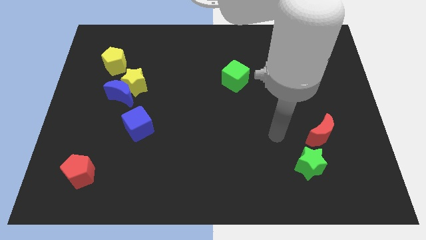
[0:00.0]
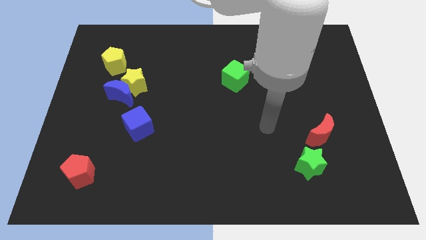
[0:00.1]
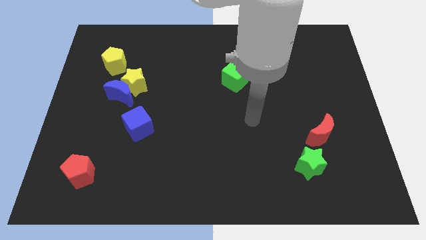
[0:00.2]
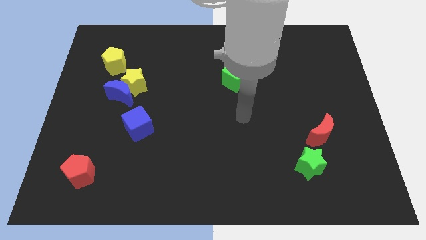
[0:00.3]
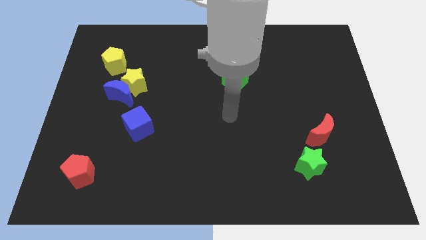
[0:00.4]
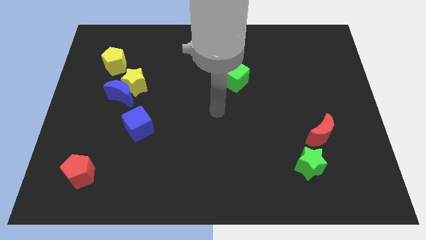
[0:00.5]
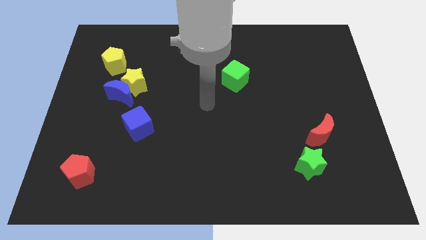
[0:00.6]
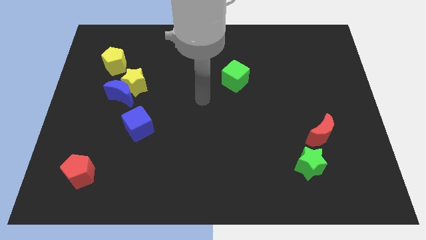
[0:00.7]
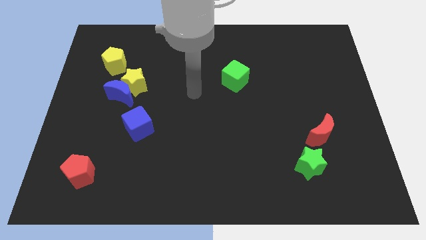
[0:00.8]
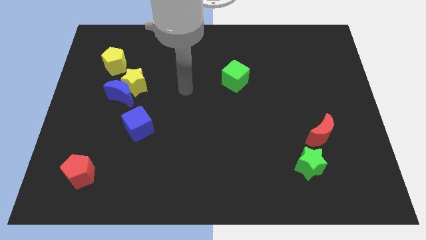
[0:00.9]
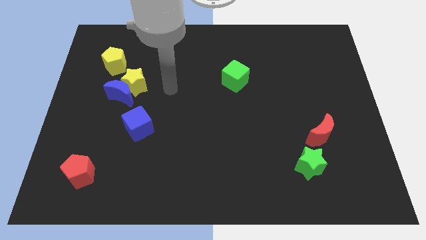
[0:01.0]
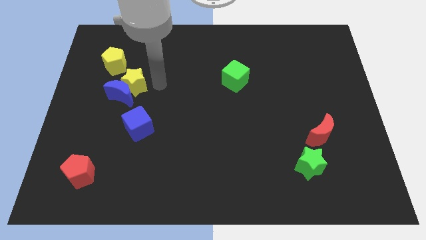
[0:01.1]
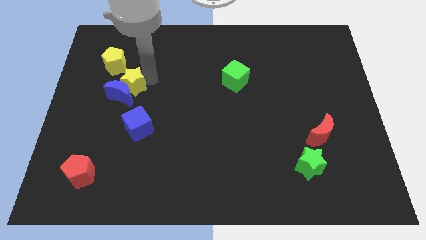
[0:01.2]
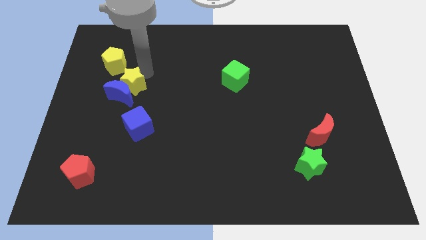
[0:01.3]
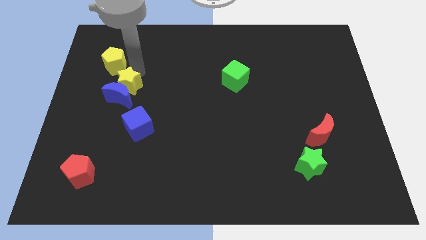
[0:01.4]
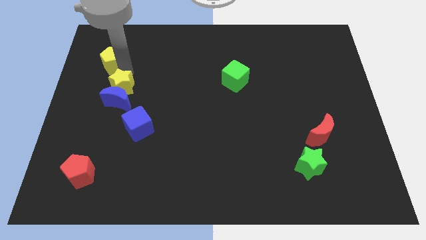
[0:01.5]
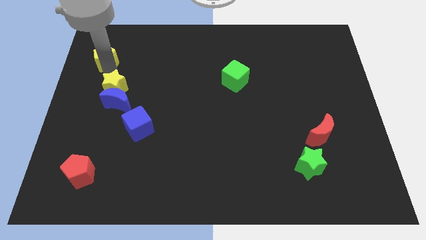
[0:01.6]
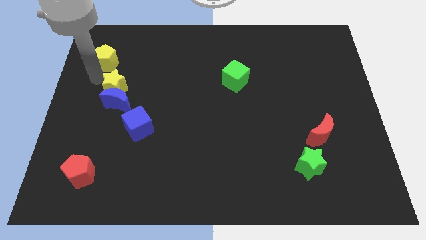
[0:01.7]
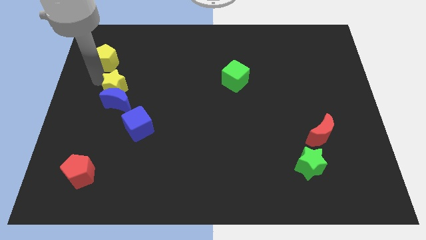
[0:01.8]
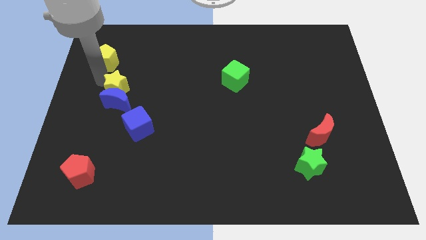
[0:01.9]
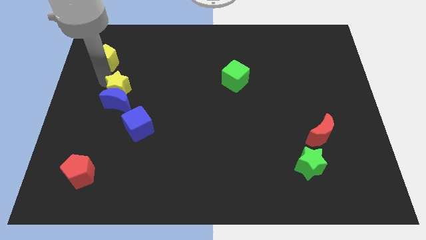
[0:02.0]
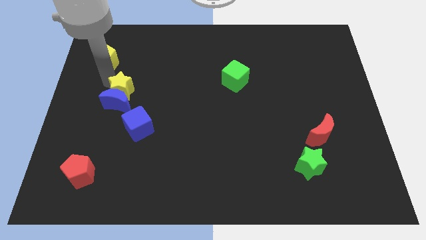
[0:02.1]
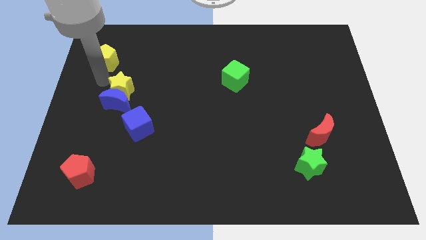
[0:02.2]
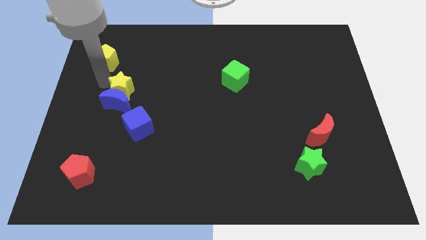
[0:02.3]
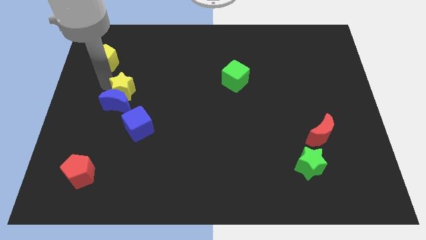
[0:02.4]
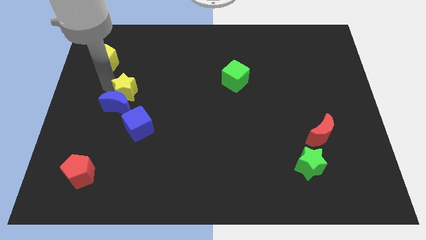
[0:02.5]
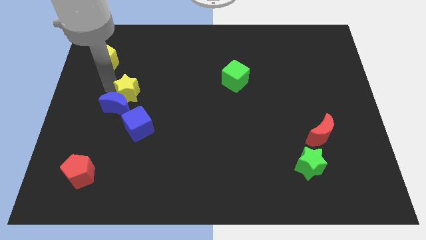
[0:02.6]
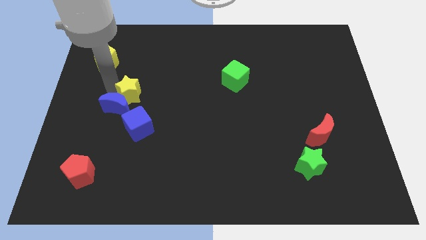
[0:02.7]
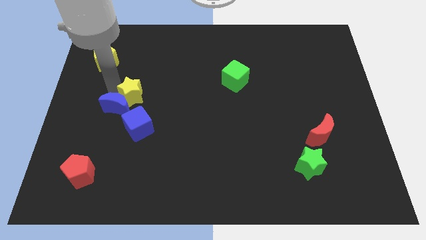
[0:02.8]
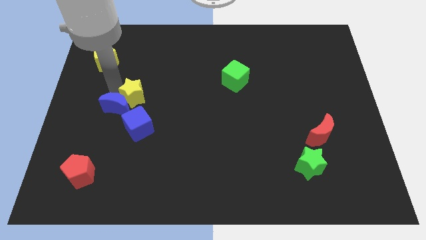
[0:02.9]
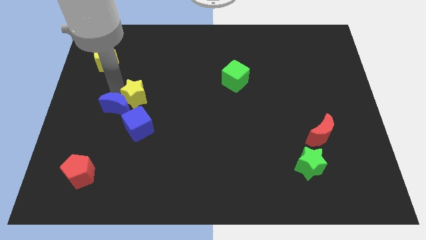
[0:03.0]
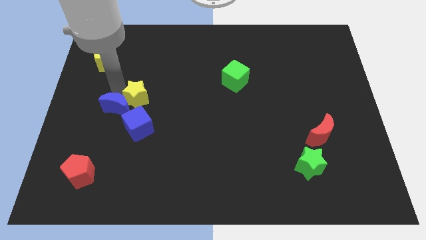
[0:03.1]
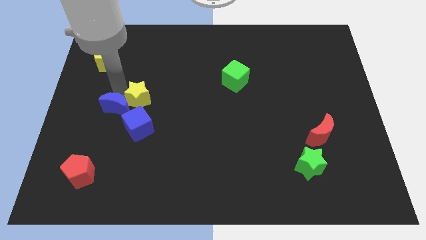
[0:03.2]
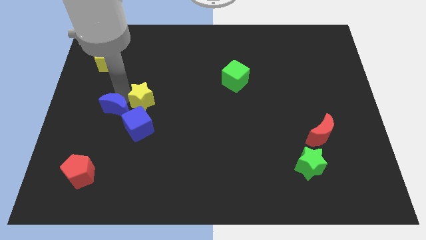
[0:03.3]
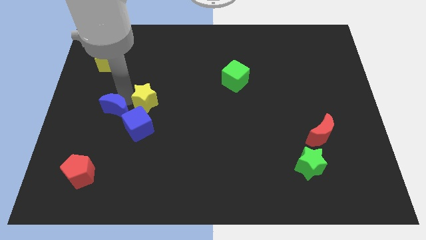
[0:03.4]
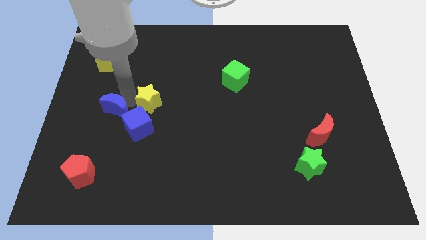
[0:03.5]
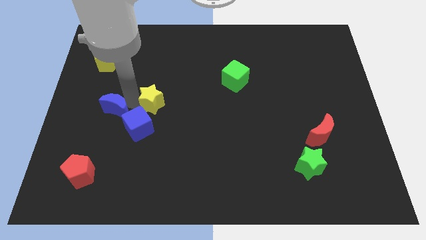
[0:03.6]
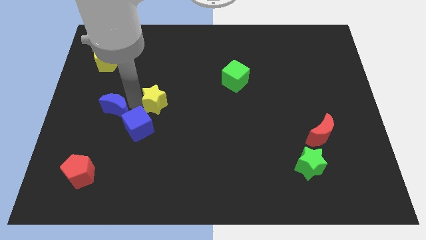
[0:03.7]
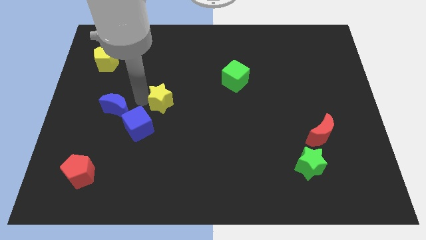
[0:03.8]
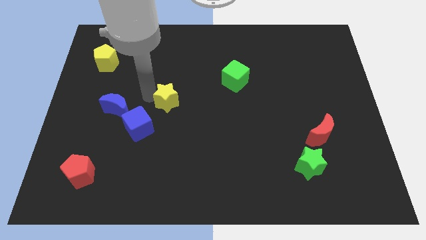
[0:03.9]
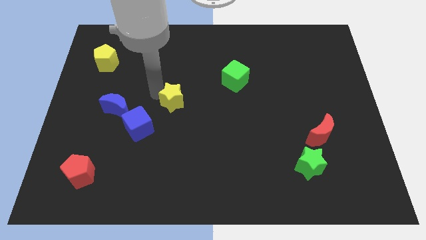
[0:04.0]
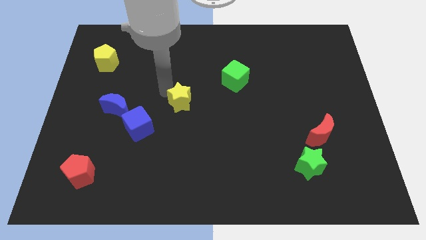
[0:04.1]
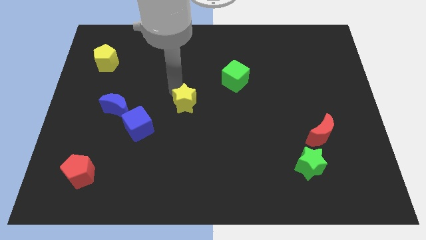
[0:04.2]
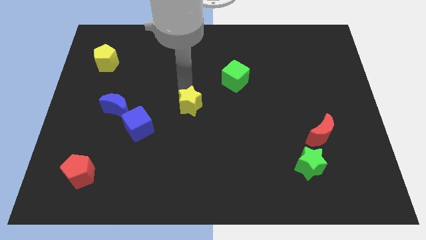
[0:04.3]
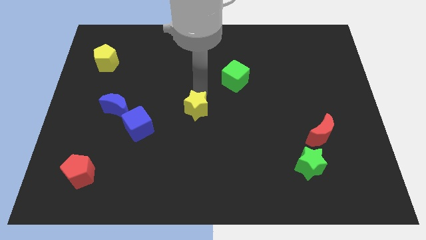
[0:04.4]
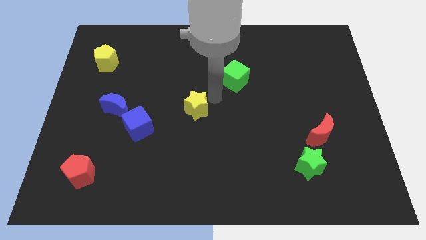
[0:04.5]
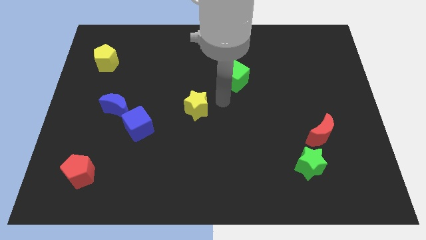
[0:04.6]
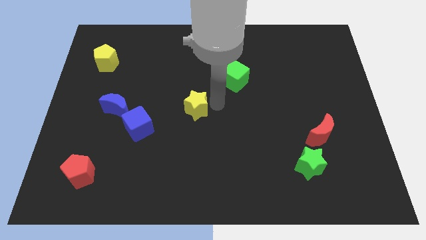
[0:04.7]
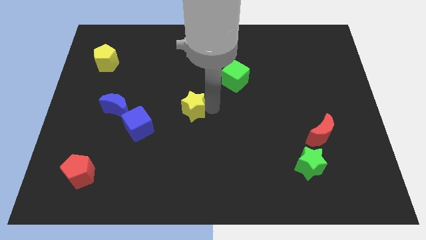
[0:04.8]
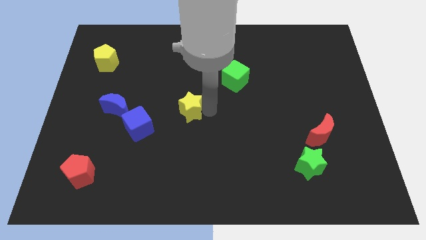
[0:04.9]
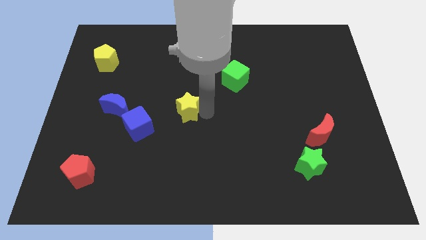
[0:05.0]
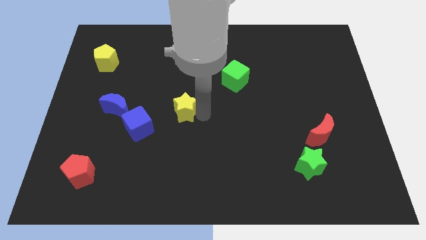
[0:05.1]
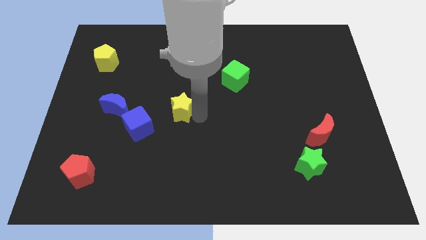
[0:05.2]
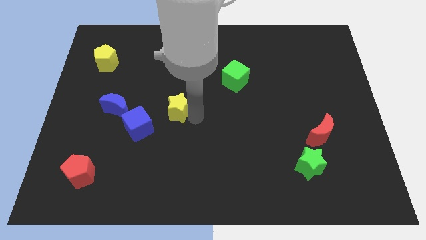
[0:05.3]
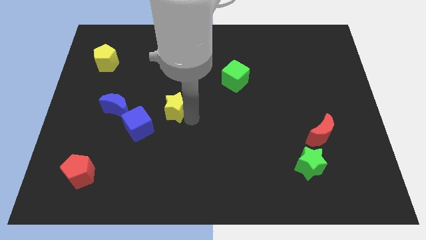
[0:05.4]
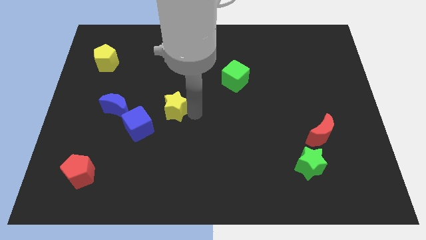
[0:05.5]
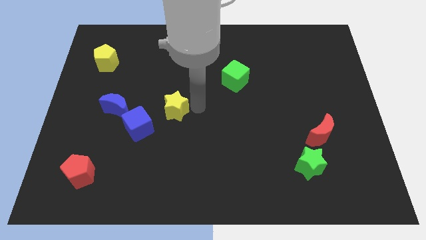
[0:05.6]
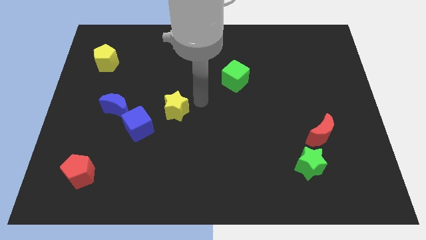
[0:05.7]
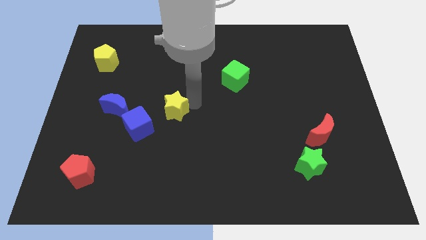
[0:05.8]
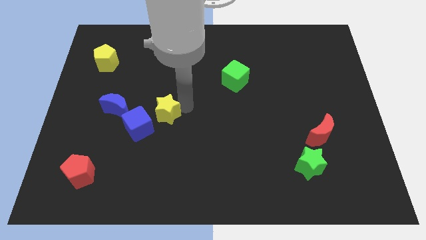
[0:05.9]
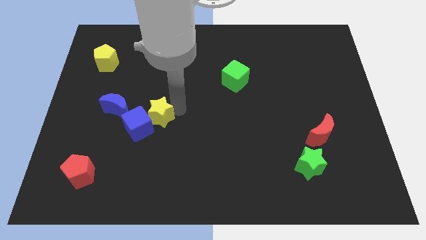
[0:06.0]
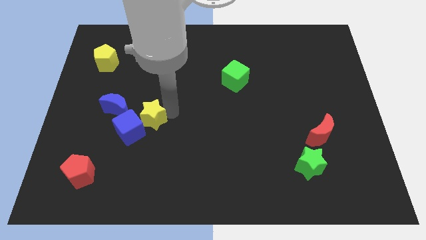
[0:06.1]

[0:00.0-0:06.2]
slide the yellow star to the bottom right side of the blue moon

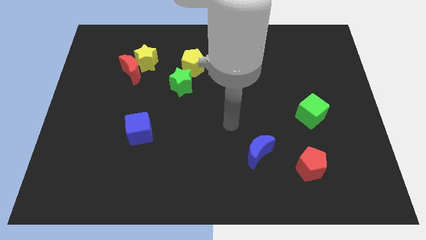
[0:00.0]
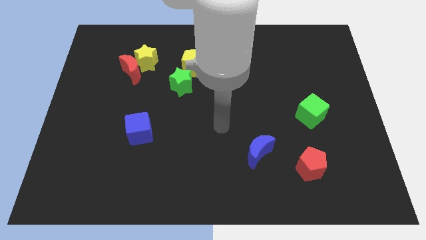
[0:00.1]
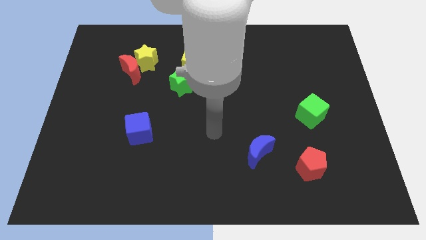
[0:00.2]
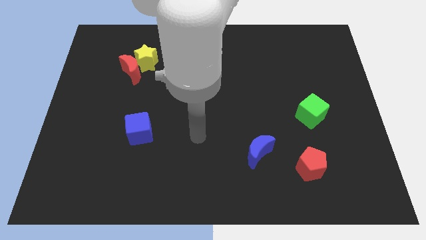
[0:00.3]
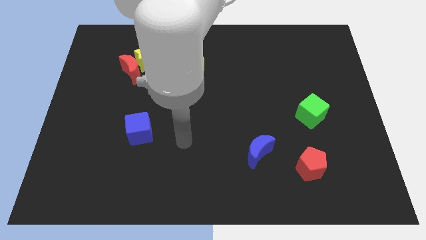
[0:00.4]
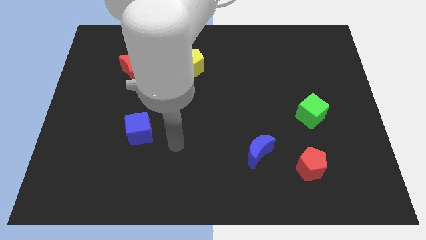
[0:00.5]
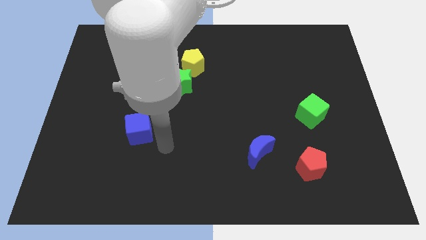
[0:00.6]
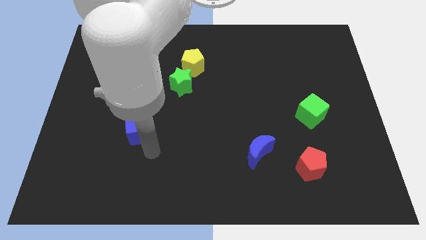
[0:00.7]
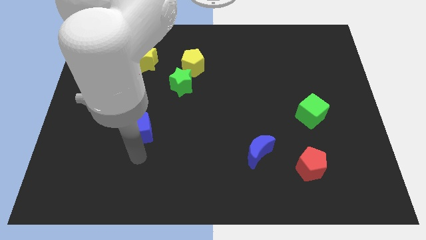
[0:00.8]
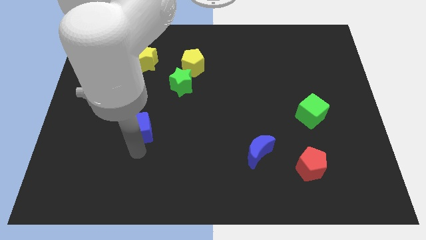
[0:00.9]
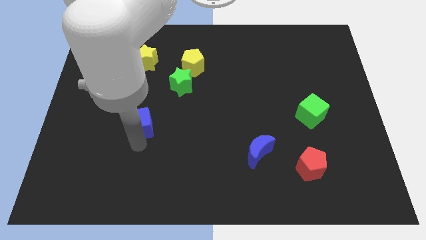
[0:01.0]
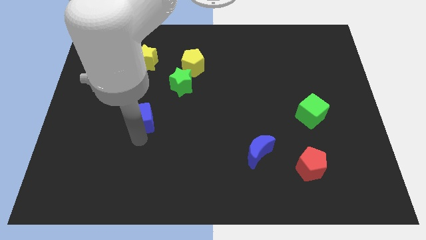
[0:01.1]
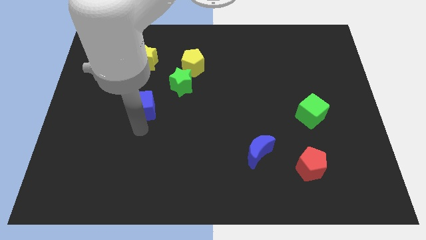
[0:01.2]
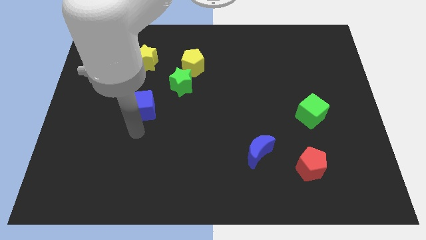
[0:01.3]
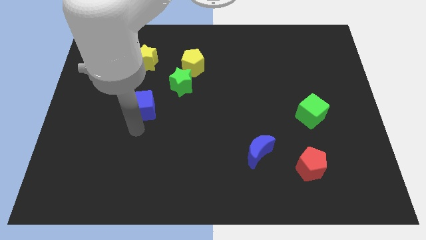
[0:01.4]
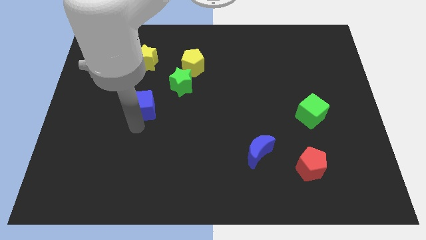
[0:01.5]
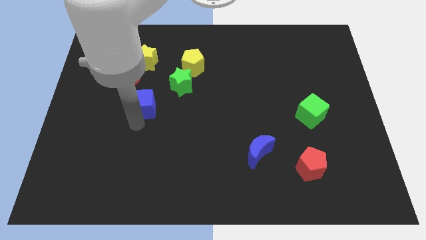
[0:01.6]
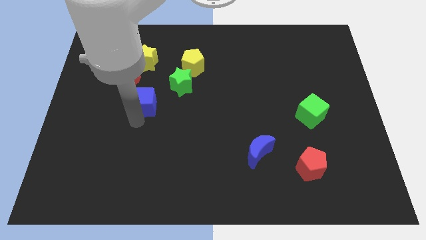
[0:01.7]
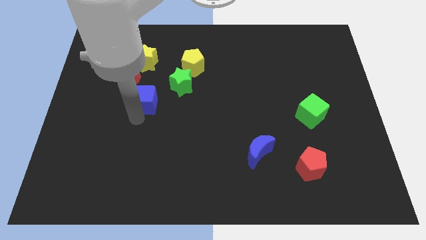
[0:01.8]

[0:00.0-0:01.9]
put the blue cube to the bottom right of the red moon
